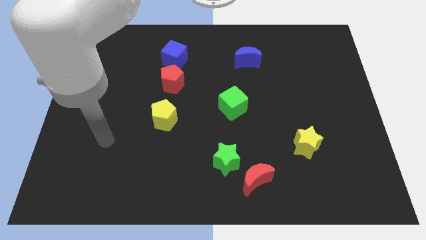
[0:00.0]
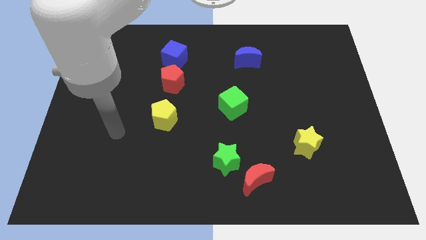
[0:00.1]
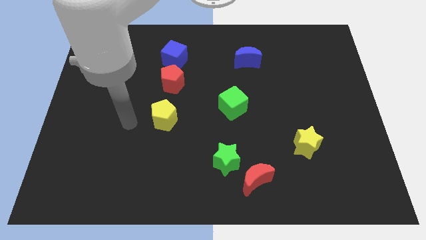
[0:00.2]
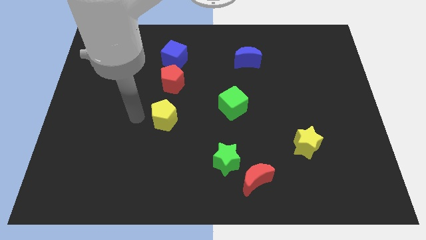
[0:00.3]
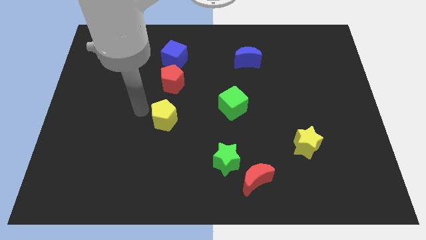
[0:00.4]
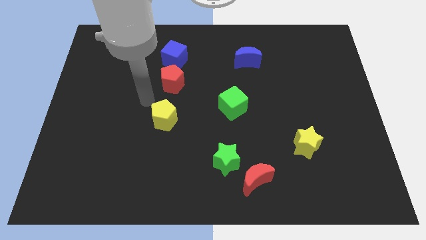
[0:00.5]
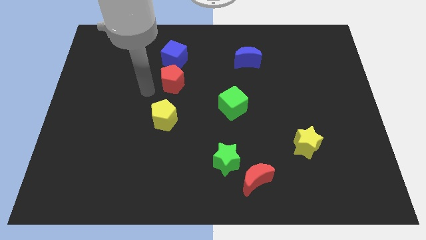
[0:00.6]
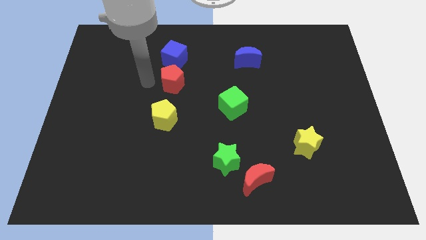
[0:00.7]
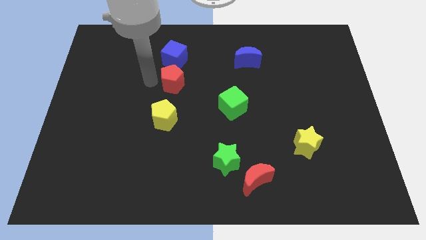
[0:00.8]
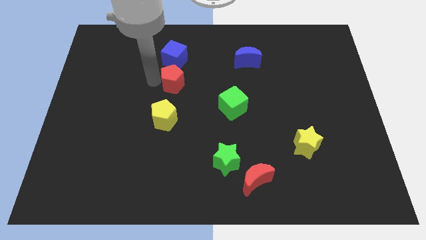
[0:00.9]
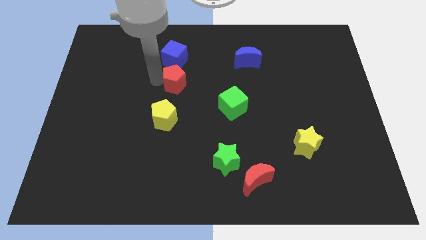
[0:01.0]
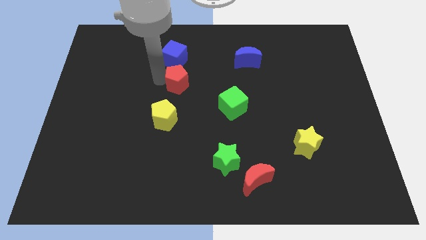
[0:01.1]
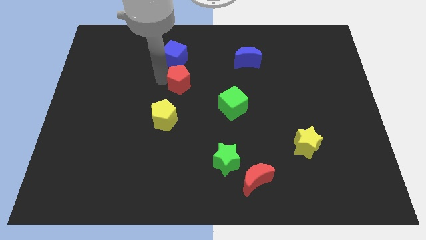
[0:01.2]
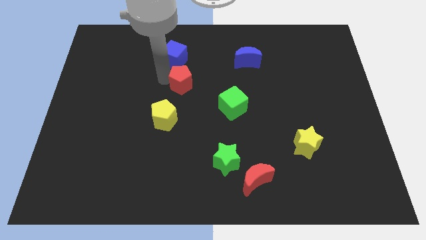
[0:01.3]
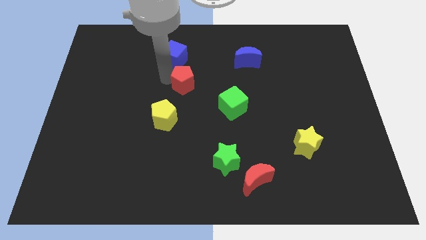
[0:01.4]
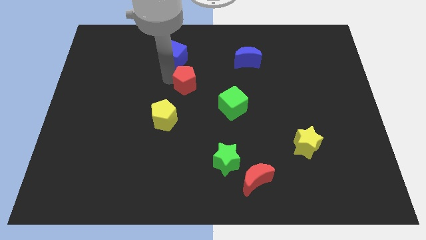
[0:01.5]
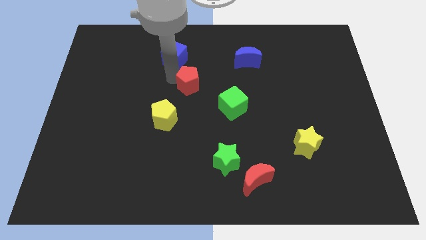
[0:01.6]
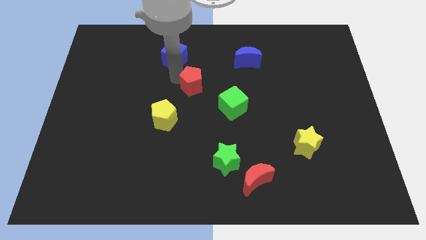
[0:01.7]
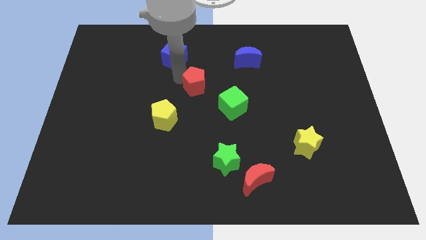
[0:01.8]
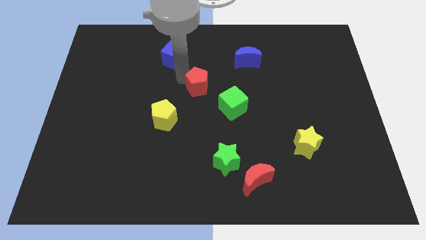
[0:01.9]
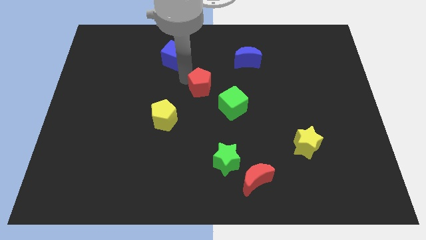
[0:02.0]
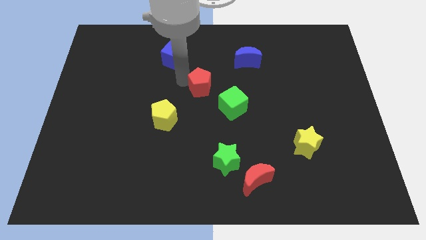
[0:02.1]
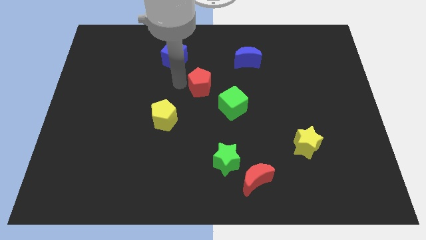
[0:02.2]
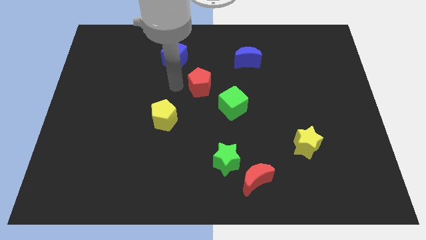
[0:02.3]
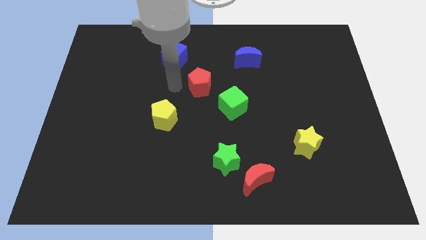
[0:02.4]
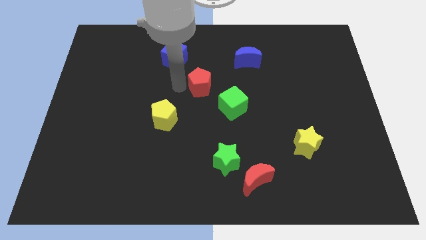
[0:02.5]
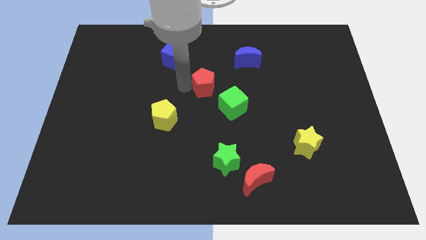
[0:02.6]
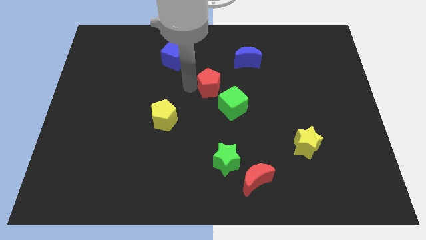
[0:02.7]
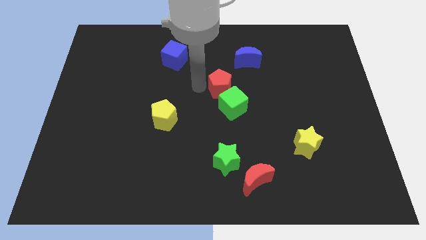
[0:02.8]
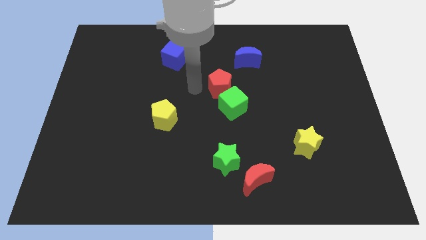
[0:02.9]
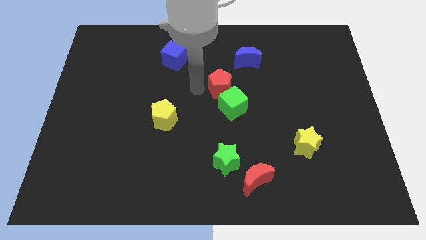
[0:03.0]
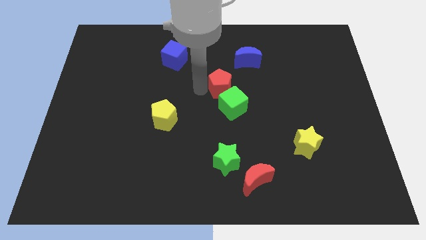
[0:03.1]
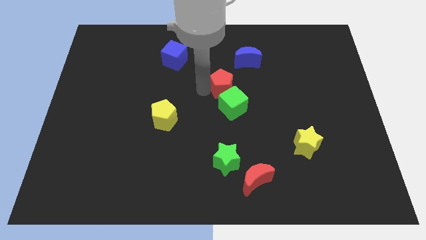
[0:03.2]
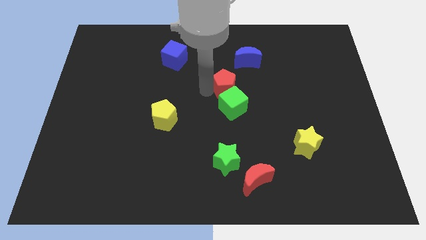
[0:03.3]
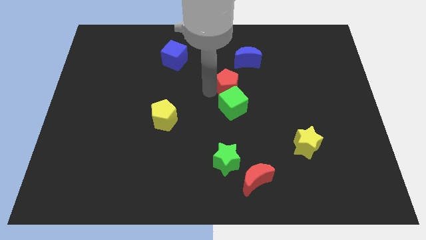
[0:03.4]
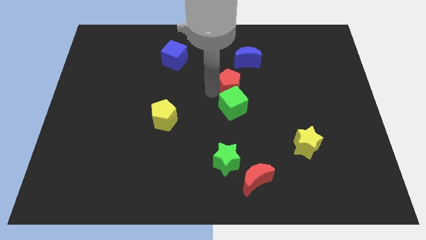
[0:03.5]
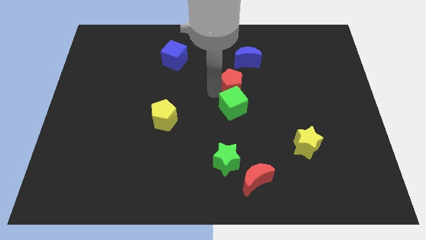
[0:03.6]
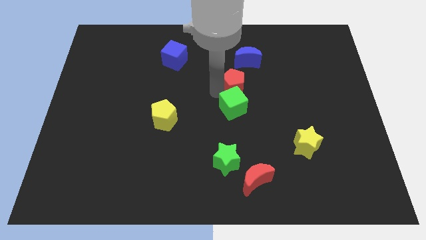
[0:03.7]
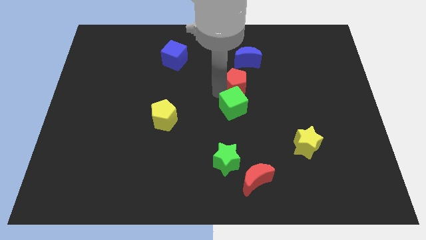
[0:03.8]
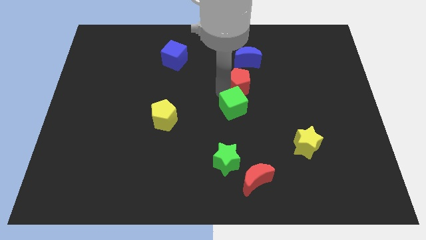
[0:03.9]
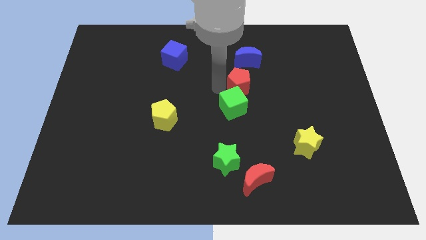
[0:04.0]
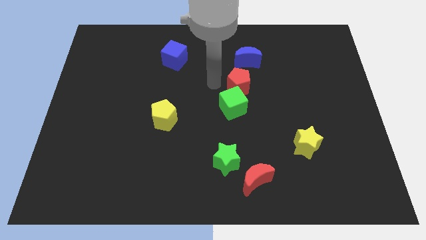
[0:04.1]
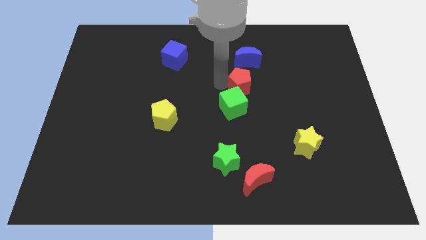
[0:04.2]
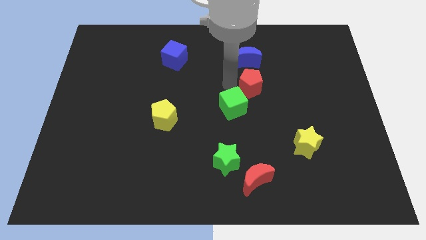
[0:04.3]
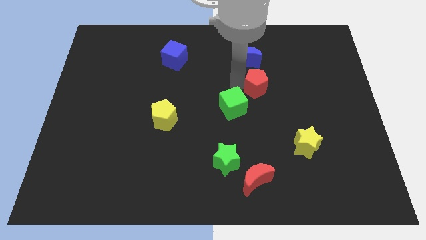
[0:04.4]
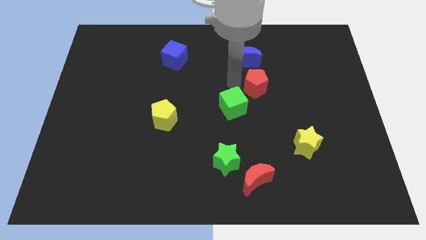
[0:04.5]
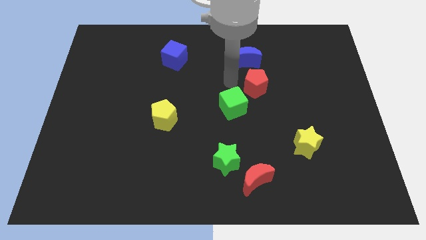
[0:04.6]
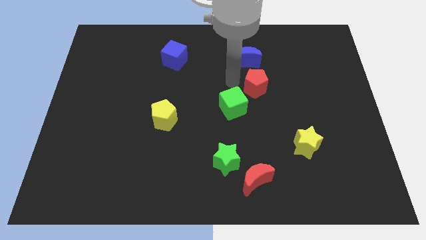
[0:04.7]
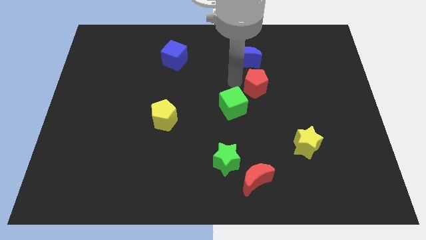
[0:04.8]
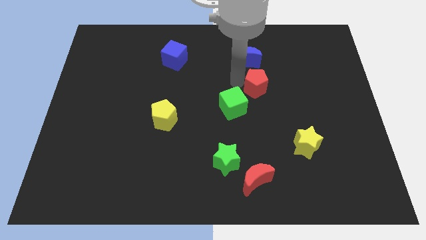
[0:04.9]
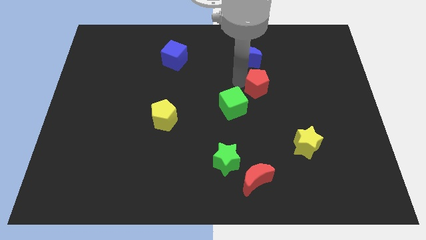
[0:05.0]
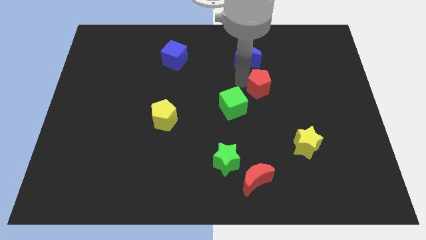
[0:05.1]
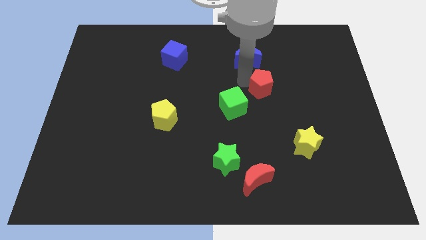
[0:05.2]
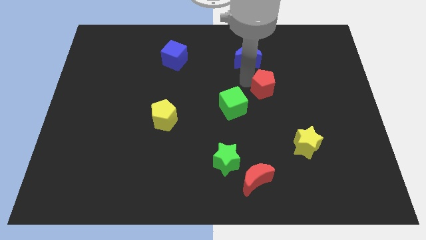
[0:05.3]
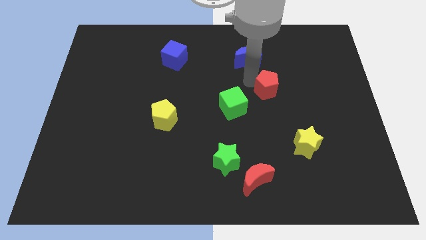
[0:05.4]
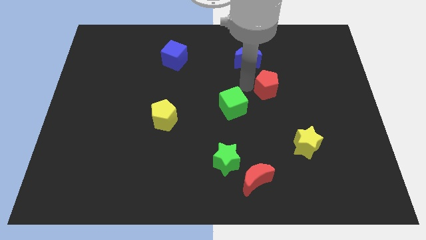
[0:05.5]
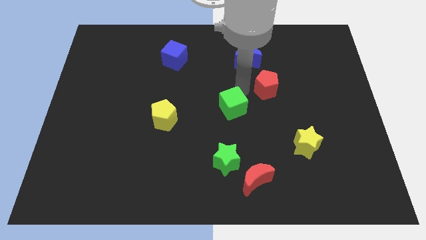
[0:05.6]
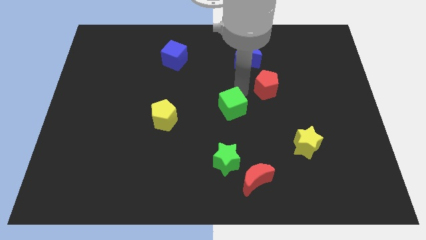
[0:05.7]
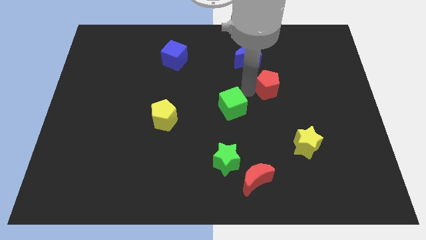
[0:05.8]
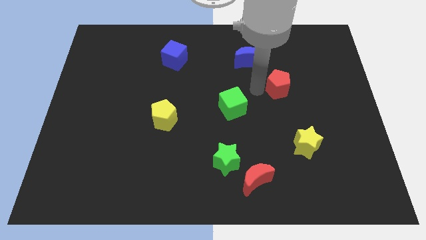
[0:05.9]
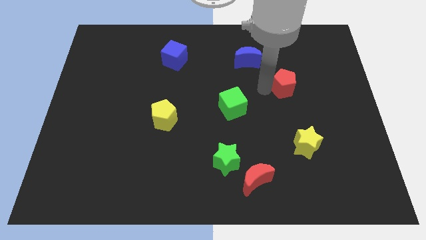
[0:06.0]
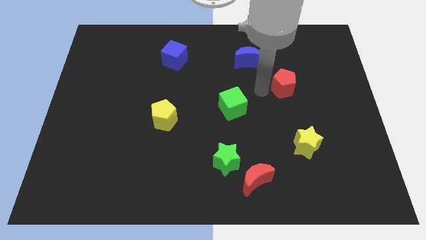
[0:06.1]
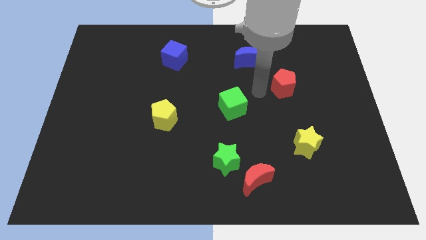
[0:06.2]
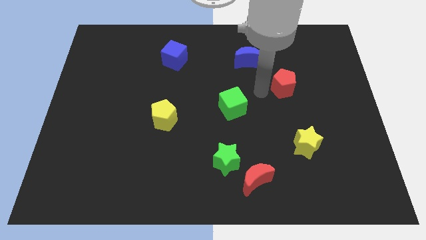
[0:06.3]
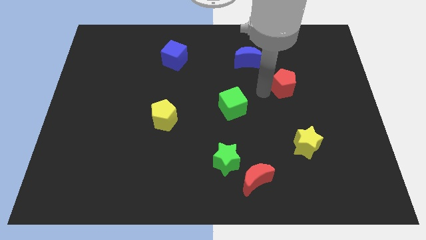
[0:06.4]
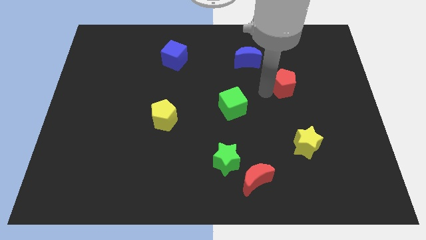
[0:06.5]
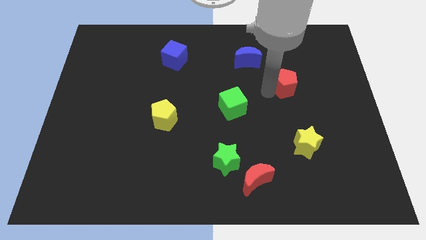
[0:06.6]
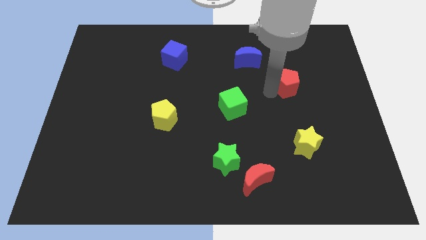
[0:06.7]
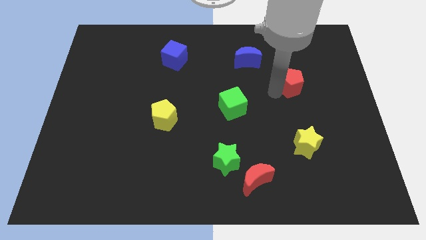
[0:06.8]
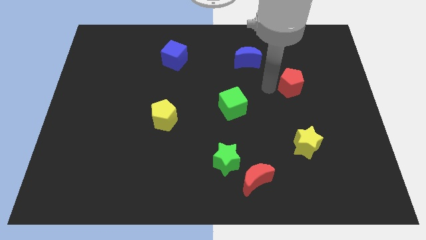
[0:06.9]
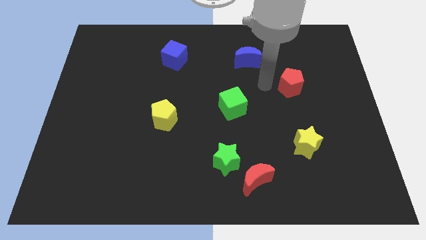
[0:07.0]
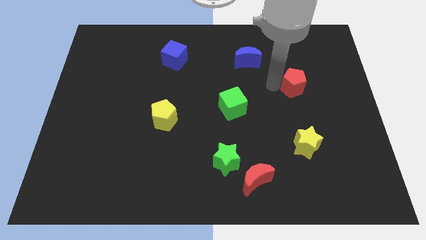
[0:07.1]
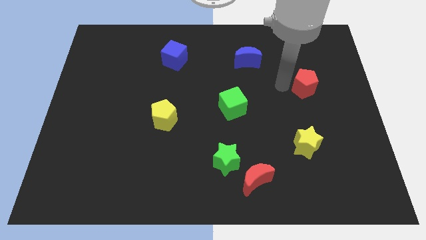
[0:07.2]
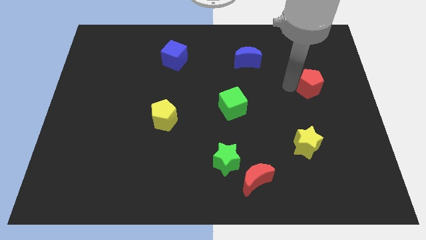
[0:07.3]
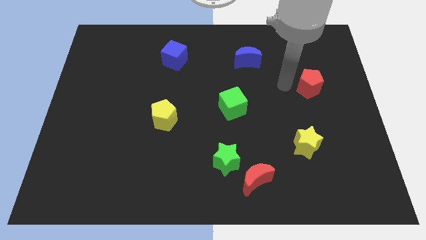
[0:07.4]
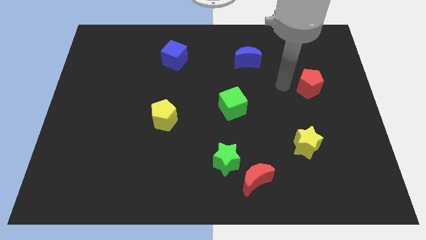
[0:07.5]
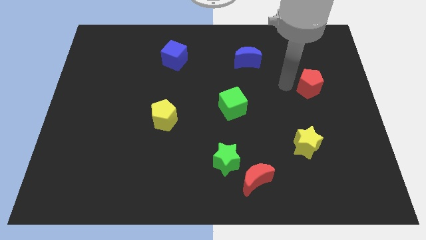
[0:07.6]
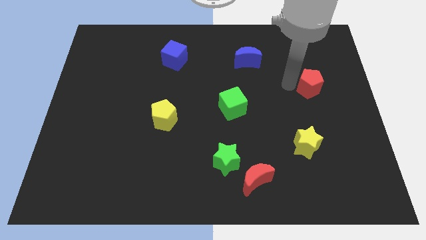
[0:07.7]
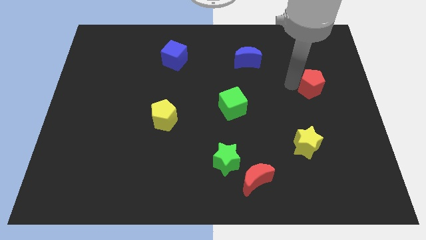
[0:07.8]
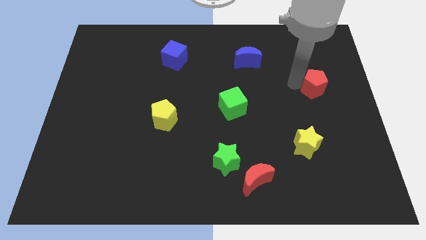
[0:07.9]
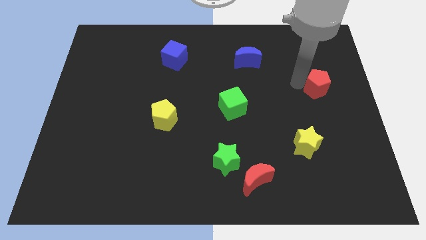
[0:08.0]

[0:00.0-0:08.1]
push the red pentagon to the right side
